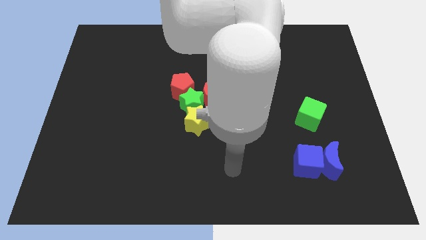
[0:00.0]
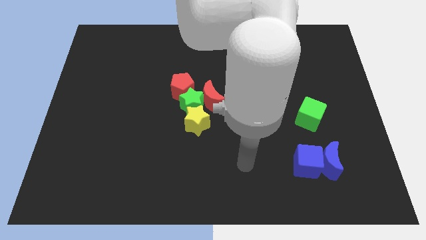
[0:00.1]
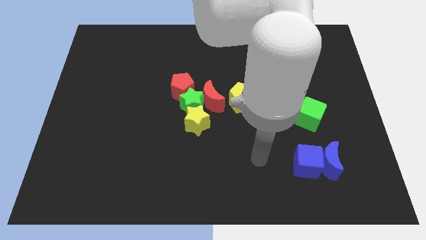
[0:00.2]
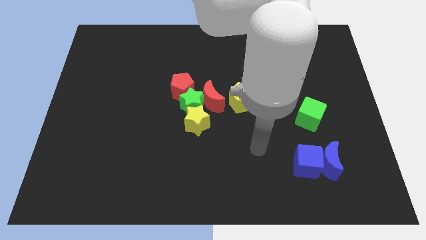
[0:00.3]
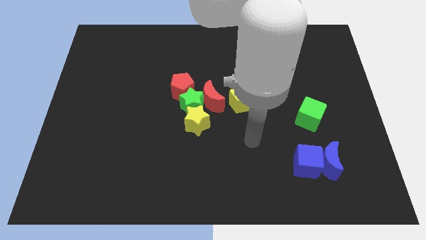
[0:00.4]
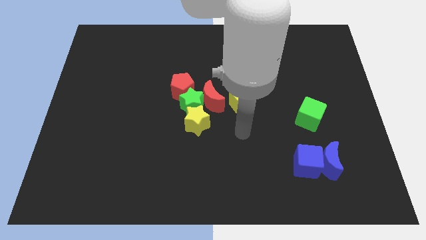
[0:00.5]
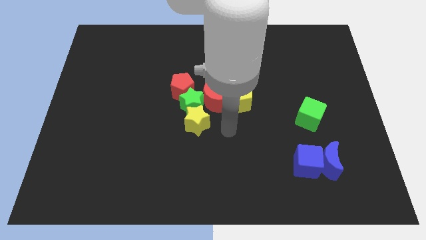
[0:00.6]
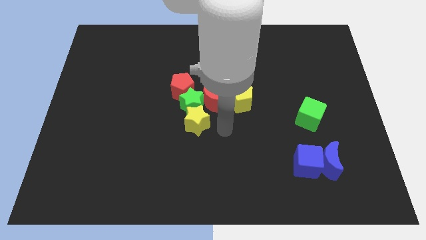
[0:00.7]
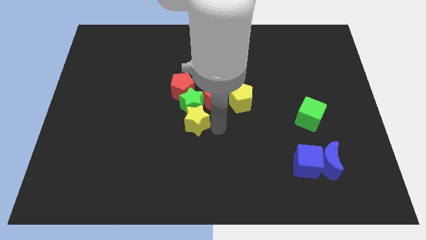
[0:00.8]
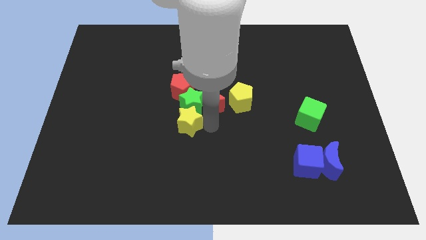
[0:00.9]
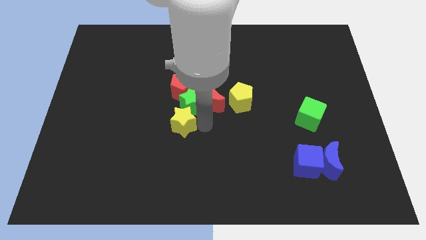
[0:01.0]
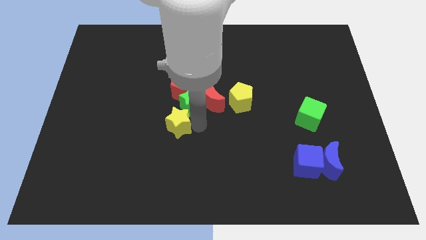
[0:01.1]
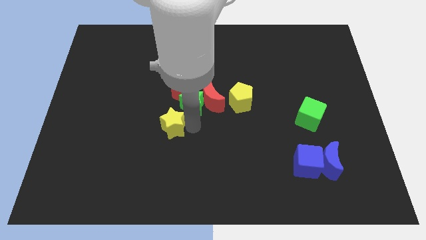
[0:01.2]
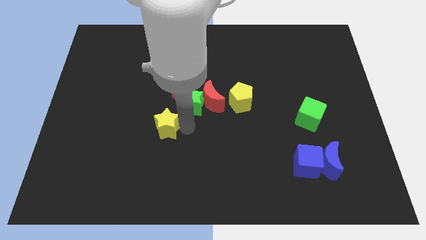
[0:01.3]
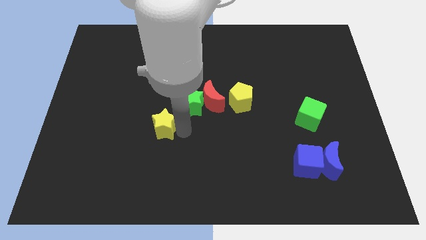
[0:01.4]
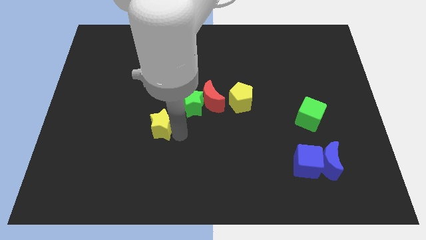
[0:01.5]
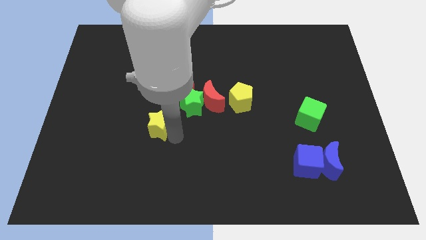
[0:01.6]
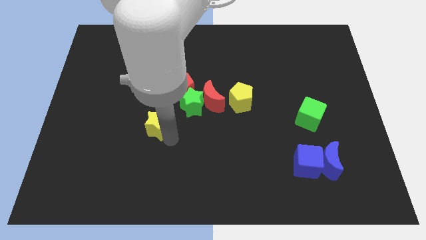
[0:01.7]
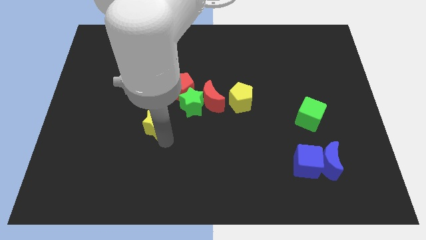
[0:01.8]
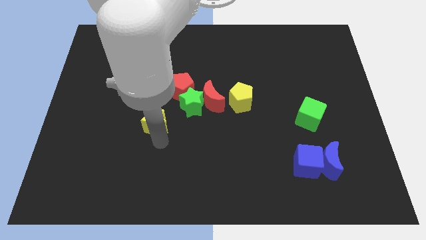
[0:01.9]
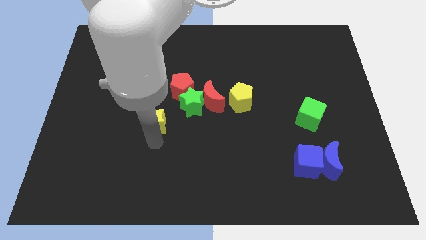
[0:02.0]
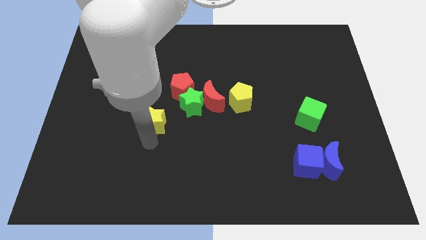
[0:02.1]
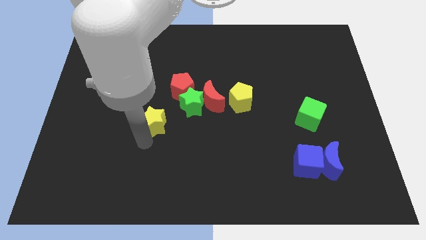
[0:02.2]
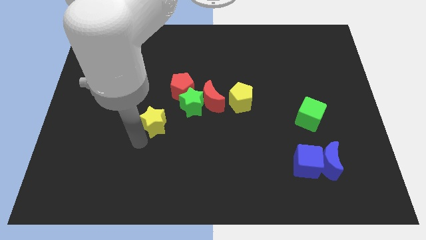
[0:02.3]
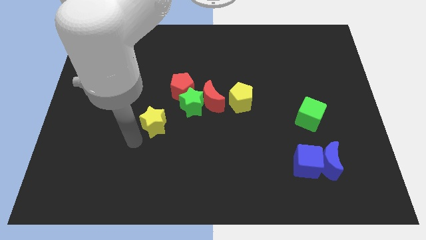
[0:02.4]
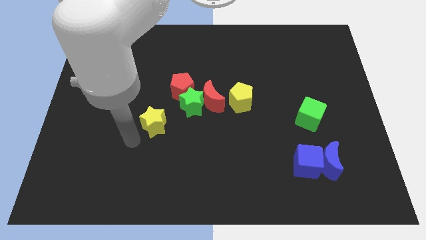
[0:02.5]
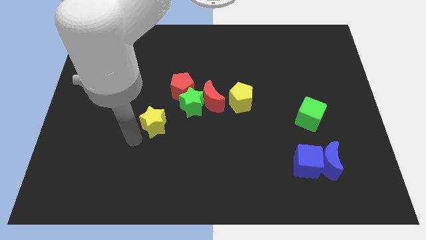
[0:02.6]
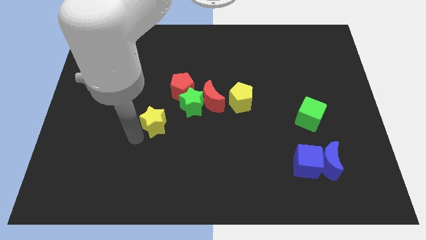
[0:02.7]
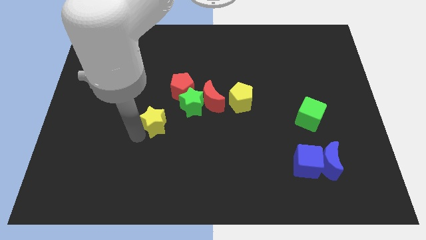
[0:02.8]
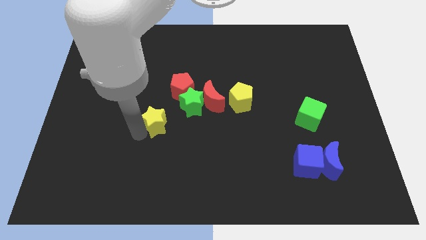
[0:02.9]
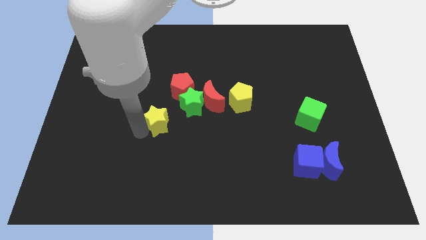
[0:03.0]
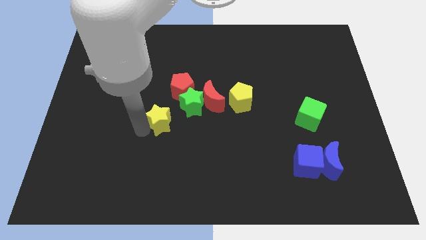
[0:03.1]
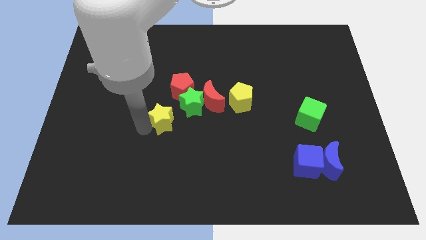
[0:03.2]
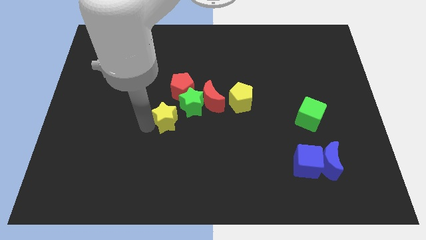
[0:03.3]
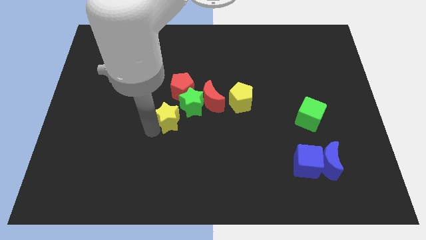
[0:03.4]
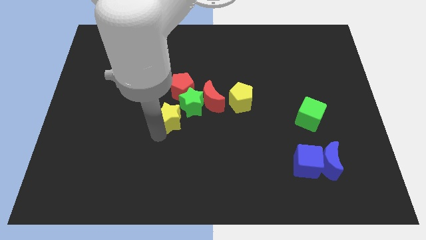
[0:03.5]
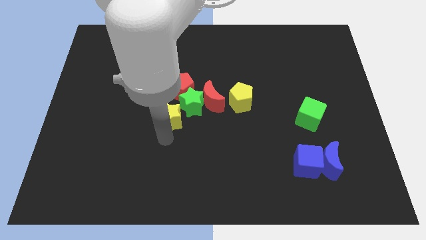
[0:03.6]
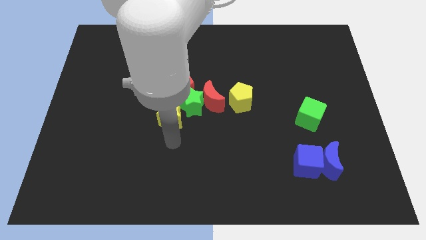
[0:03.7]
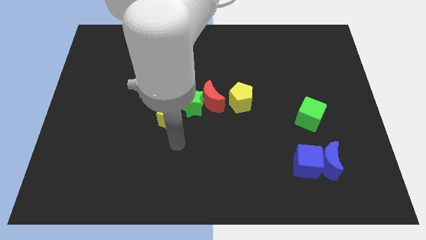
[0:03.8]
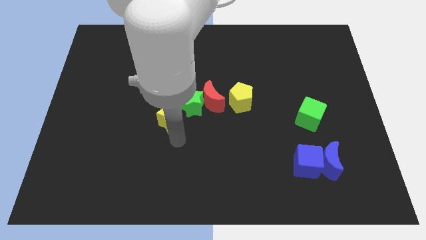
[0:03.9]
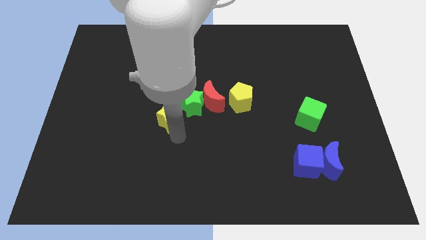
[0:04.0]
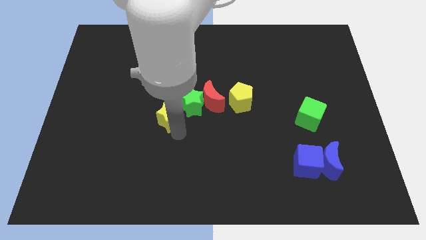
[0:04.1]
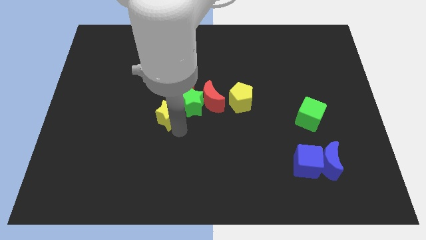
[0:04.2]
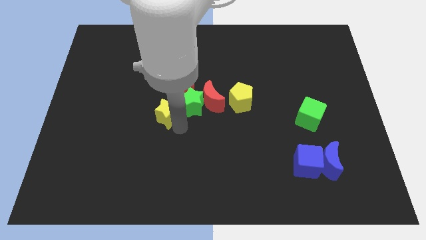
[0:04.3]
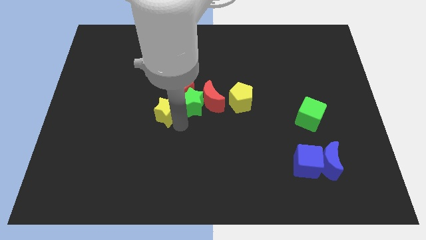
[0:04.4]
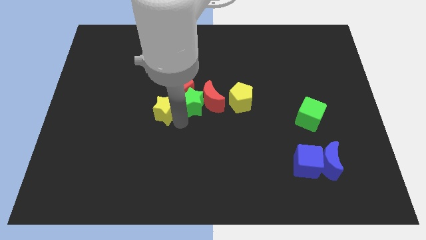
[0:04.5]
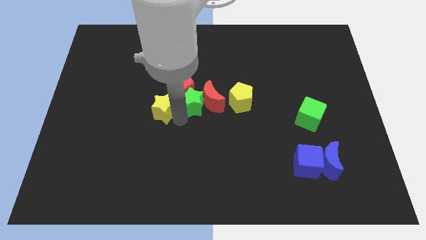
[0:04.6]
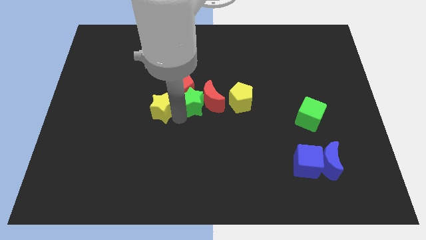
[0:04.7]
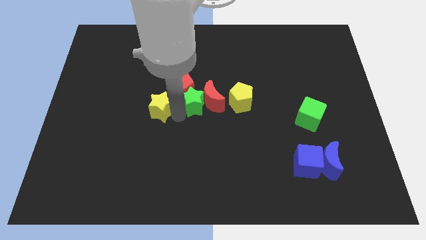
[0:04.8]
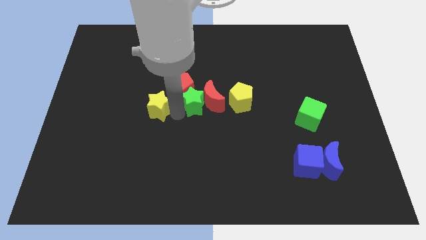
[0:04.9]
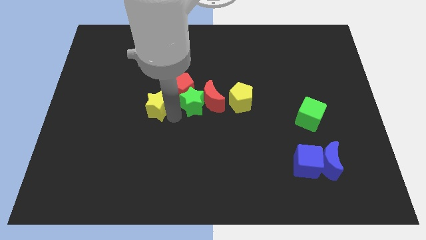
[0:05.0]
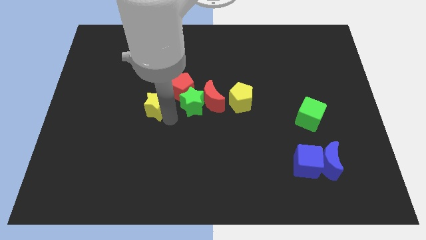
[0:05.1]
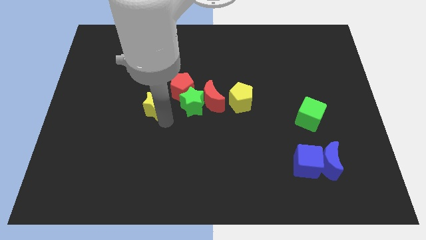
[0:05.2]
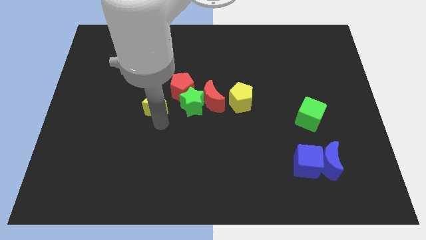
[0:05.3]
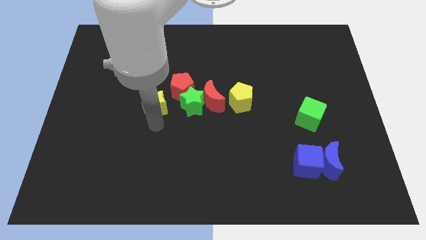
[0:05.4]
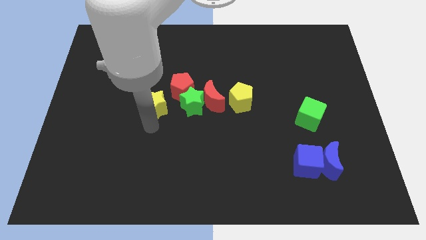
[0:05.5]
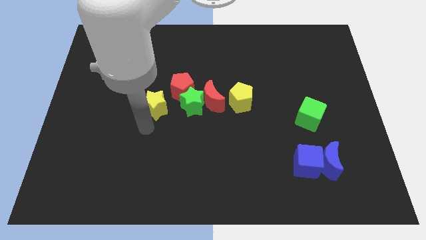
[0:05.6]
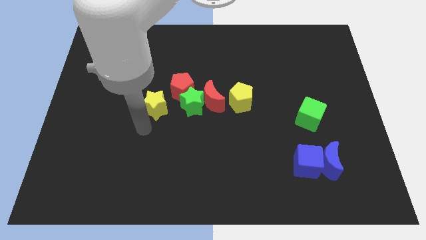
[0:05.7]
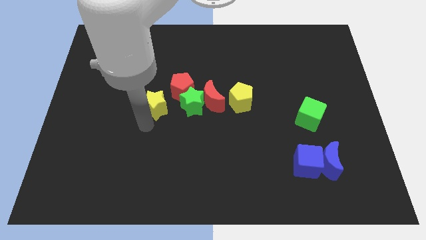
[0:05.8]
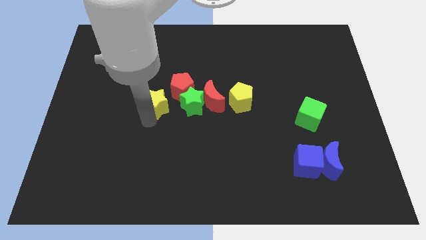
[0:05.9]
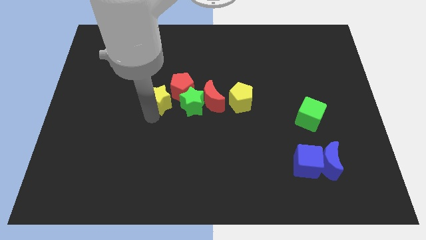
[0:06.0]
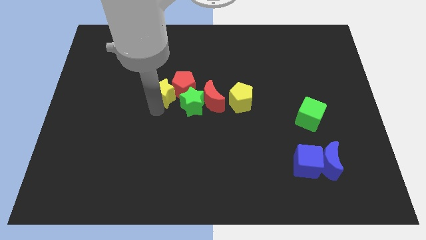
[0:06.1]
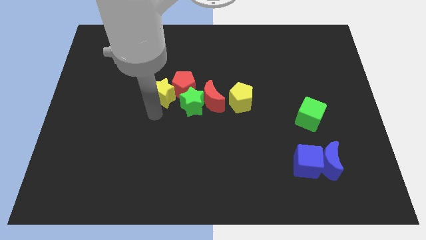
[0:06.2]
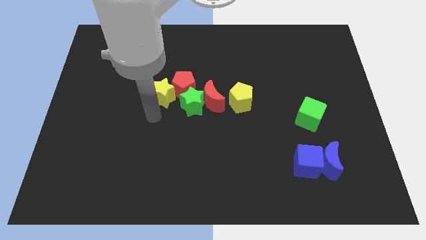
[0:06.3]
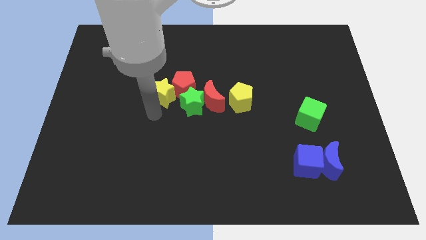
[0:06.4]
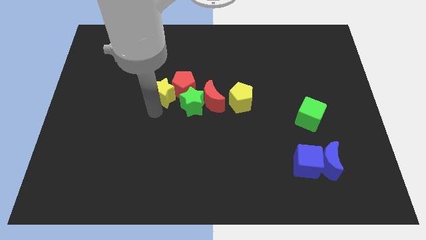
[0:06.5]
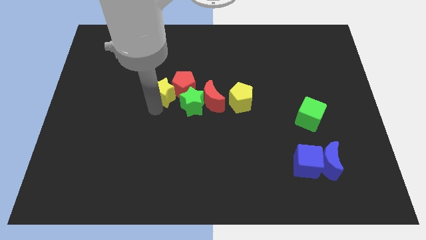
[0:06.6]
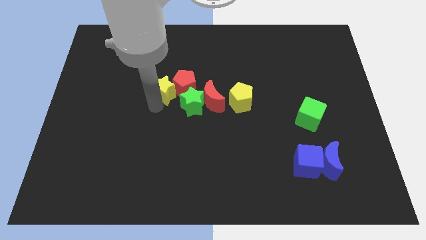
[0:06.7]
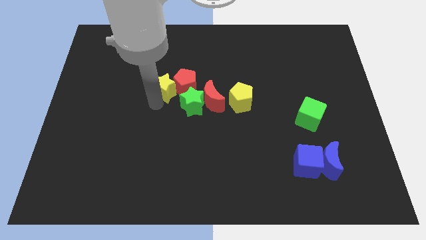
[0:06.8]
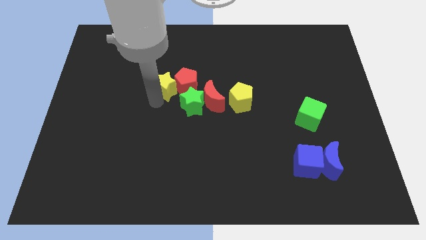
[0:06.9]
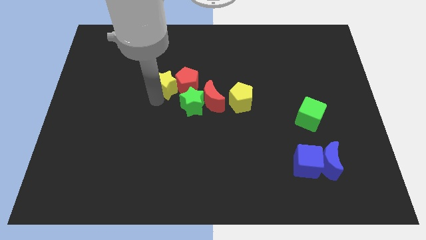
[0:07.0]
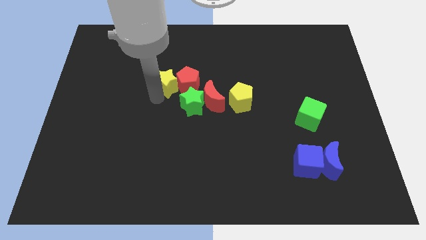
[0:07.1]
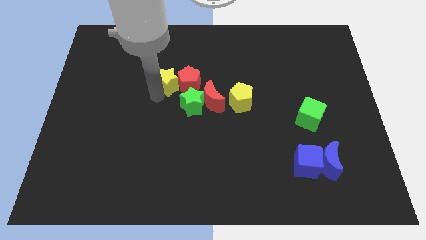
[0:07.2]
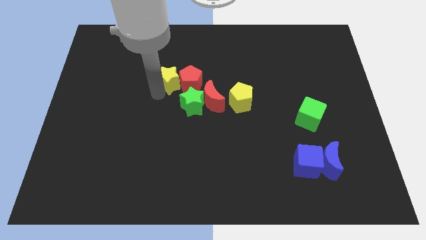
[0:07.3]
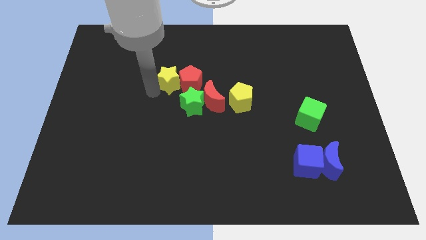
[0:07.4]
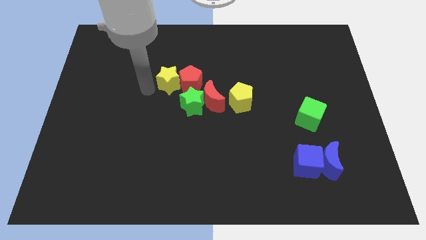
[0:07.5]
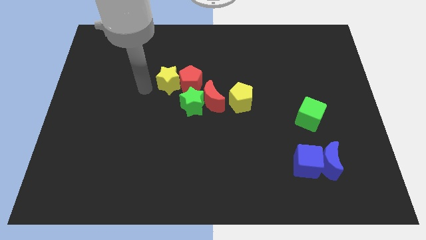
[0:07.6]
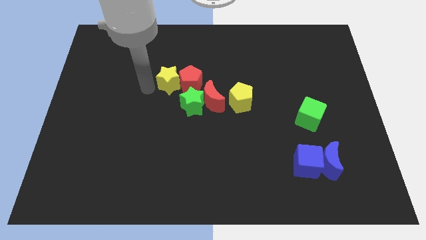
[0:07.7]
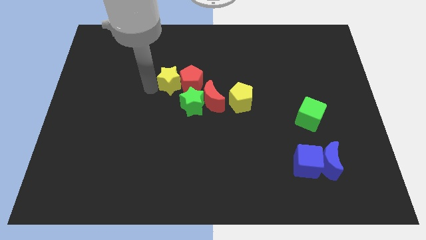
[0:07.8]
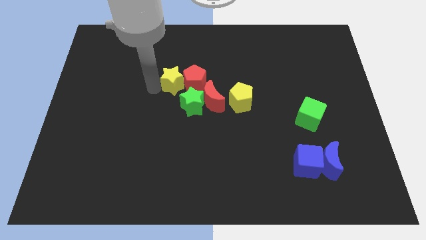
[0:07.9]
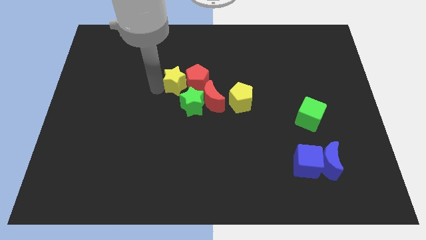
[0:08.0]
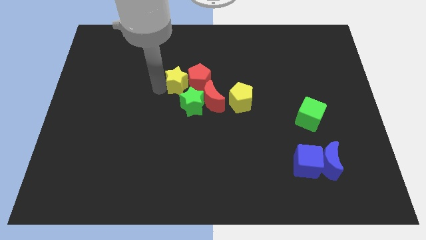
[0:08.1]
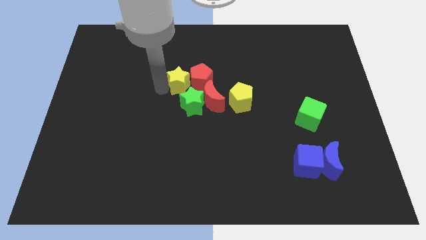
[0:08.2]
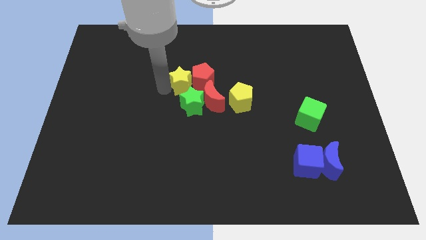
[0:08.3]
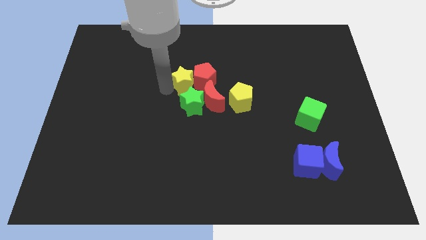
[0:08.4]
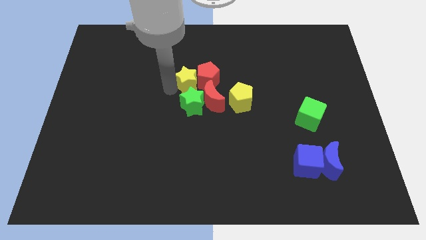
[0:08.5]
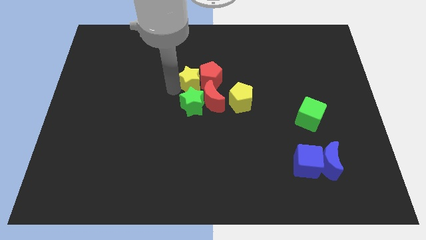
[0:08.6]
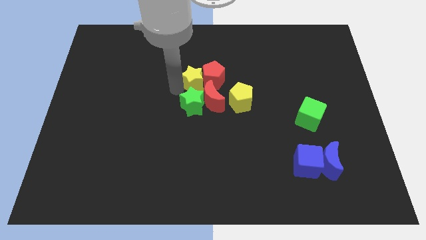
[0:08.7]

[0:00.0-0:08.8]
slide the yellow star to the top side of the red moon
